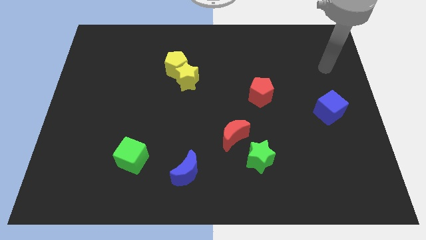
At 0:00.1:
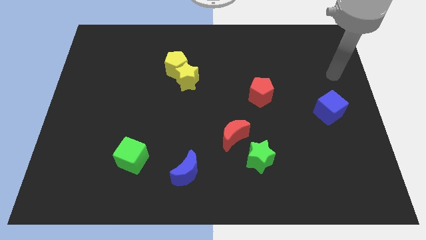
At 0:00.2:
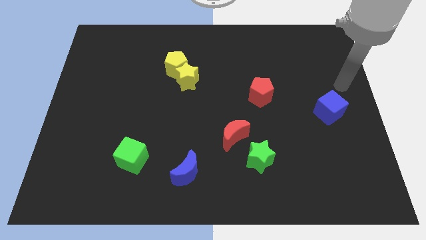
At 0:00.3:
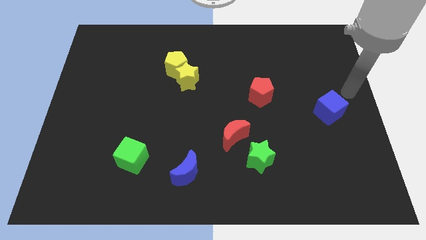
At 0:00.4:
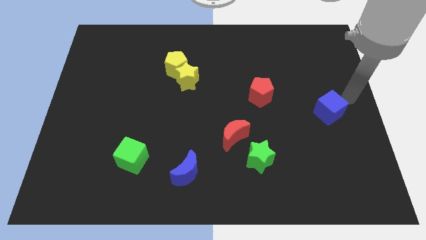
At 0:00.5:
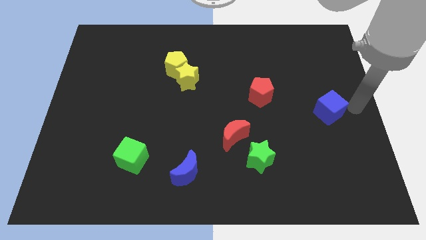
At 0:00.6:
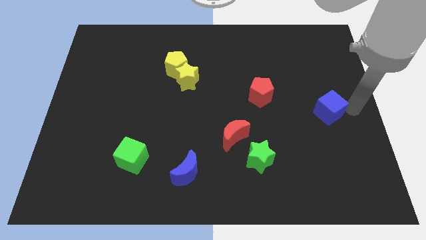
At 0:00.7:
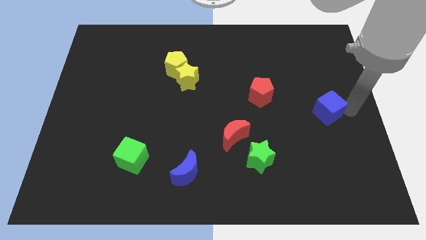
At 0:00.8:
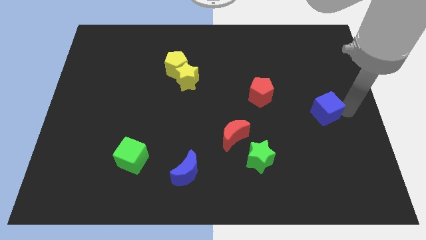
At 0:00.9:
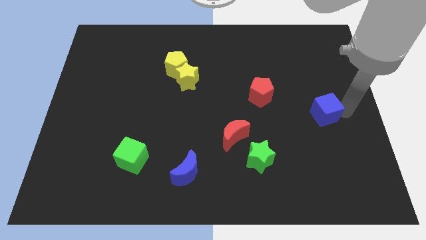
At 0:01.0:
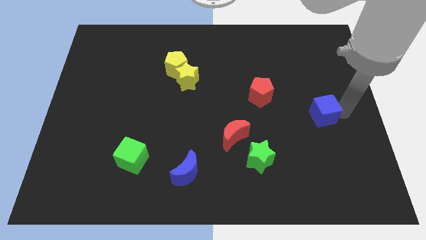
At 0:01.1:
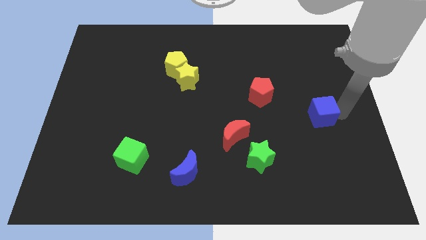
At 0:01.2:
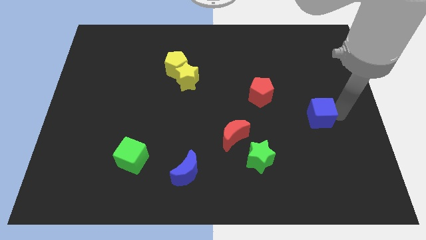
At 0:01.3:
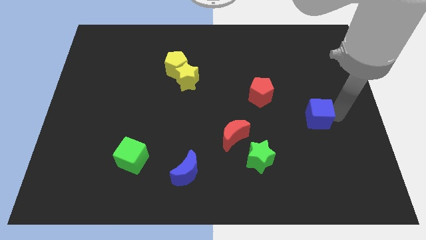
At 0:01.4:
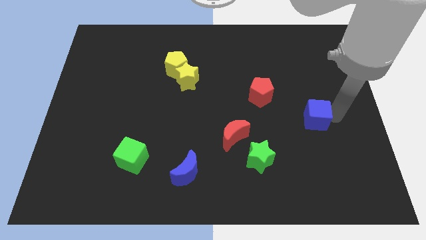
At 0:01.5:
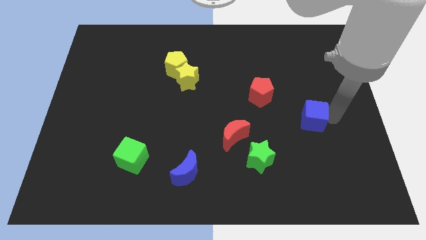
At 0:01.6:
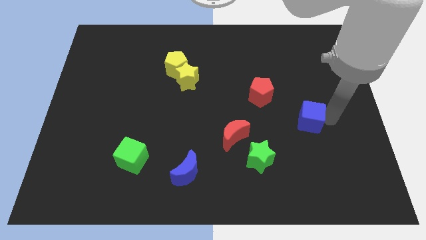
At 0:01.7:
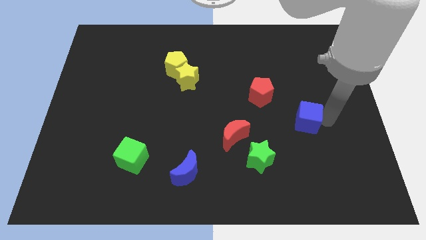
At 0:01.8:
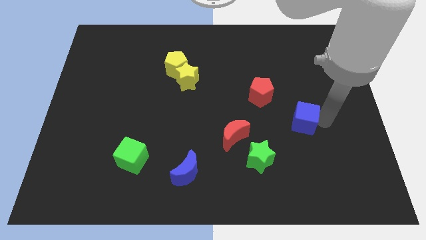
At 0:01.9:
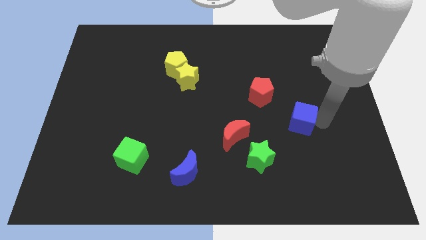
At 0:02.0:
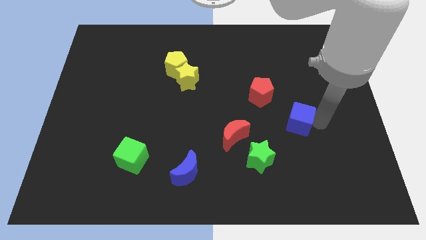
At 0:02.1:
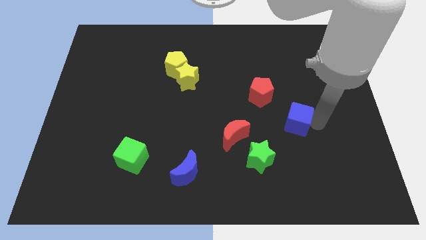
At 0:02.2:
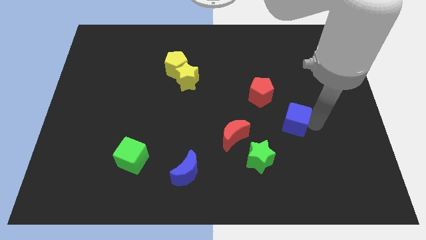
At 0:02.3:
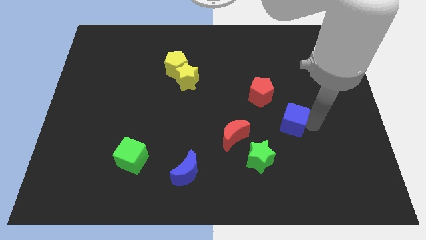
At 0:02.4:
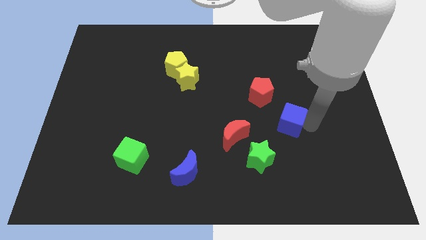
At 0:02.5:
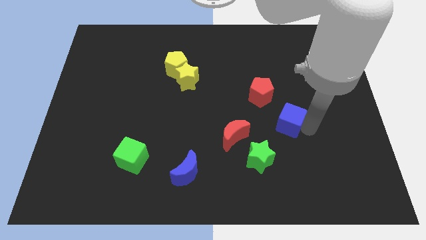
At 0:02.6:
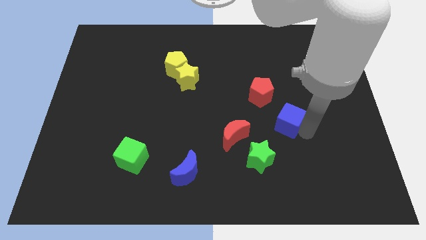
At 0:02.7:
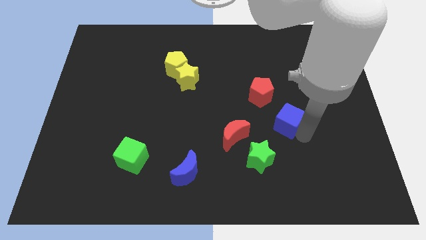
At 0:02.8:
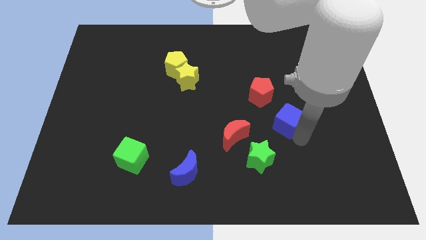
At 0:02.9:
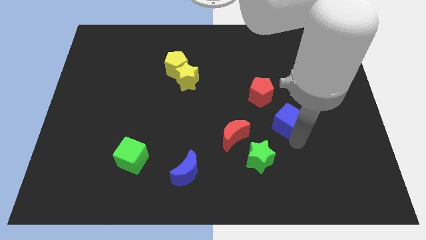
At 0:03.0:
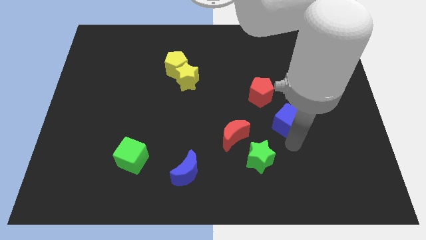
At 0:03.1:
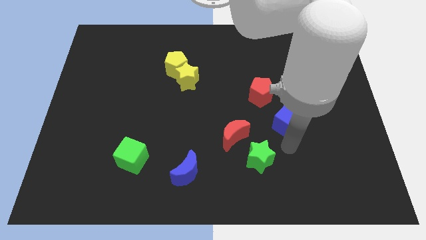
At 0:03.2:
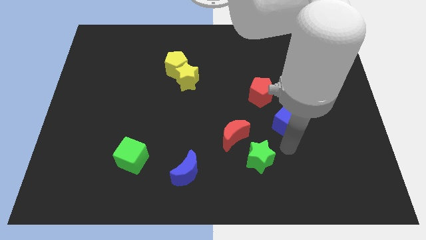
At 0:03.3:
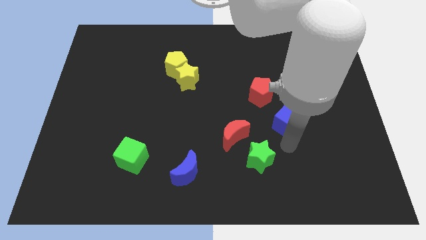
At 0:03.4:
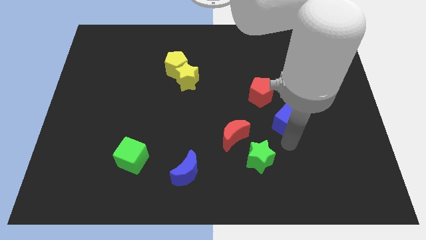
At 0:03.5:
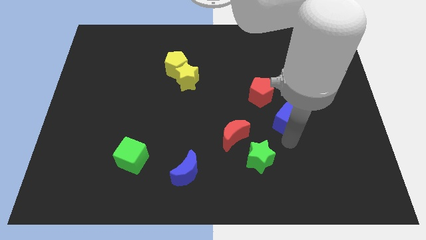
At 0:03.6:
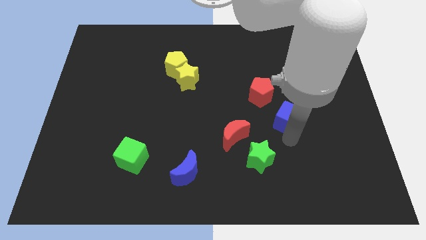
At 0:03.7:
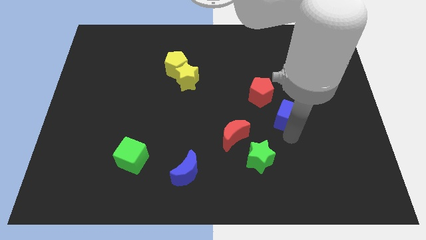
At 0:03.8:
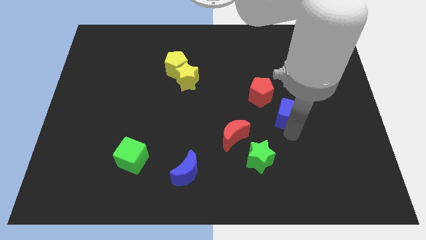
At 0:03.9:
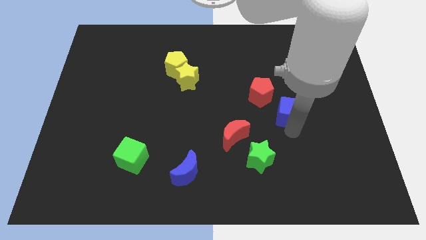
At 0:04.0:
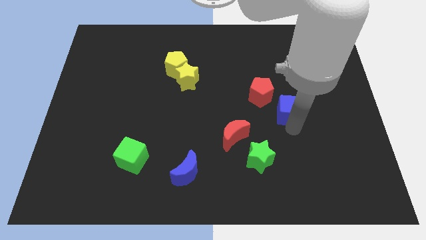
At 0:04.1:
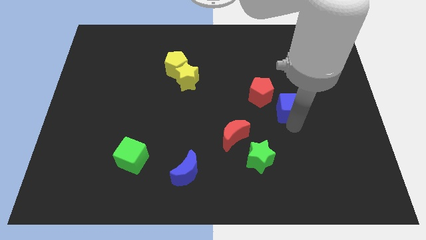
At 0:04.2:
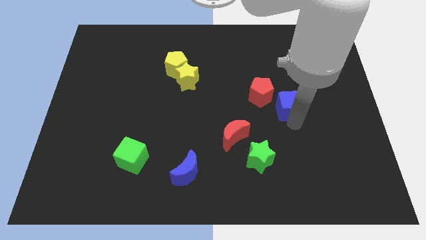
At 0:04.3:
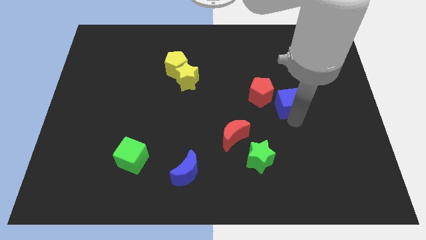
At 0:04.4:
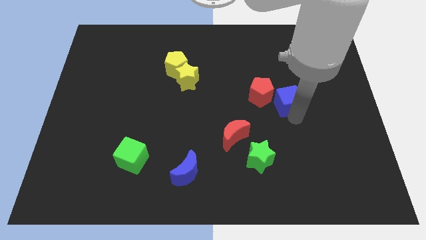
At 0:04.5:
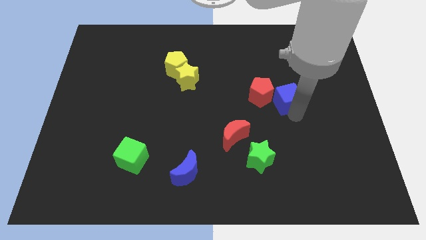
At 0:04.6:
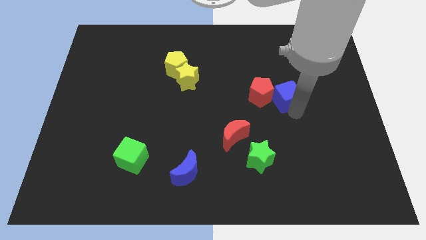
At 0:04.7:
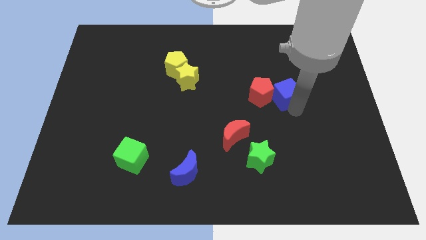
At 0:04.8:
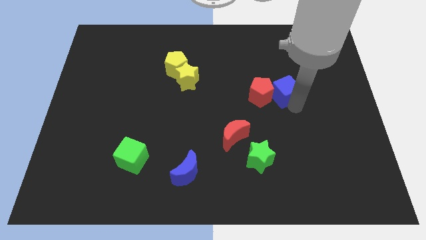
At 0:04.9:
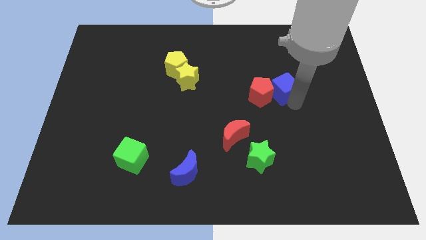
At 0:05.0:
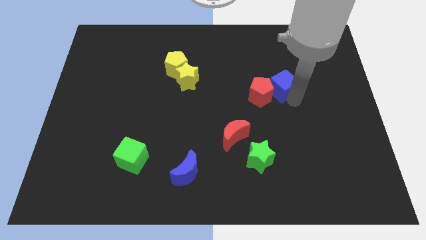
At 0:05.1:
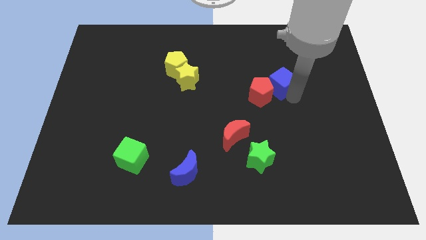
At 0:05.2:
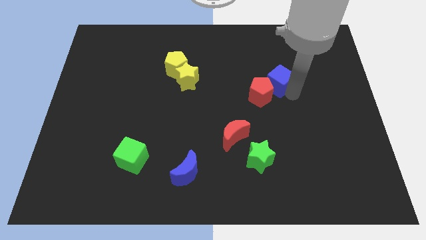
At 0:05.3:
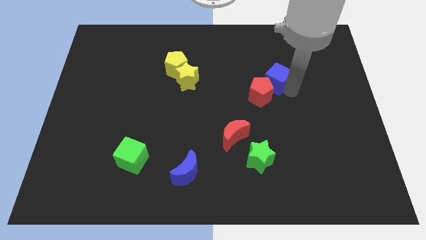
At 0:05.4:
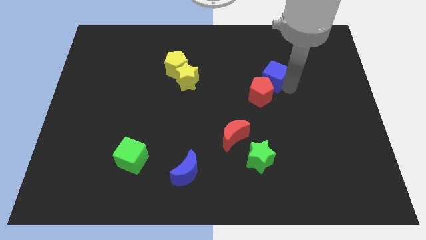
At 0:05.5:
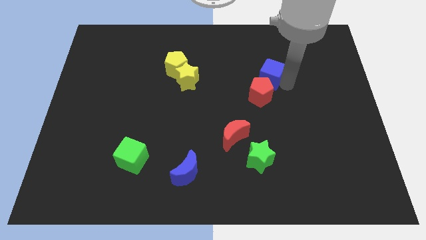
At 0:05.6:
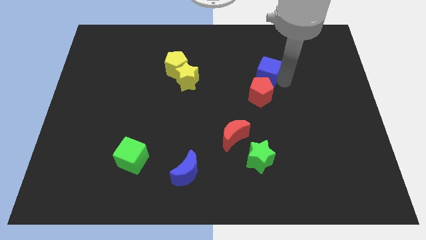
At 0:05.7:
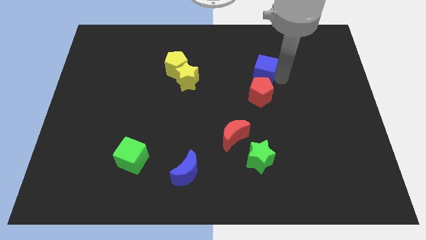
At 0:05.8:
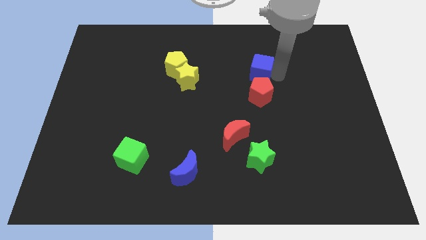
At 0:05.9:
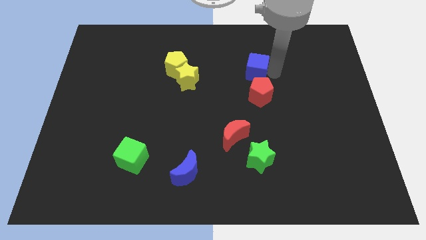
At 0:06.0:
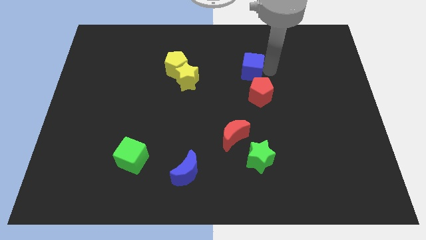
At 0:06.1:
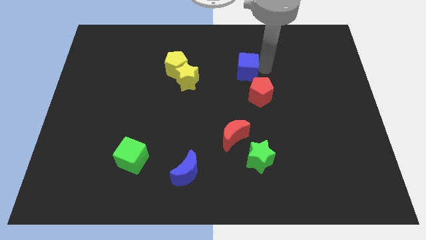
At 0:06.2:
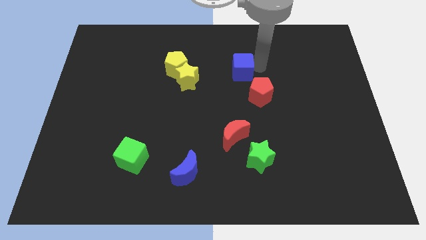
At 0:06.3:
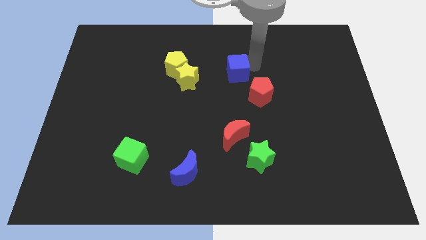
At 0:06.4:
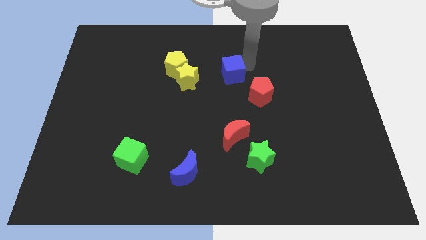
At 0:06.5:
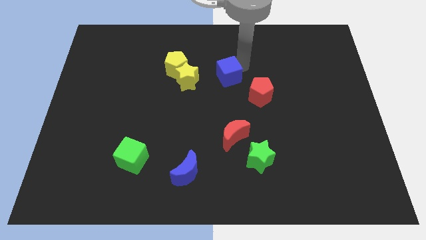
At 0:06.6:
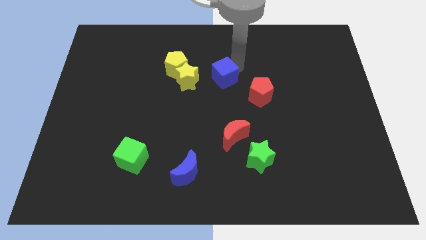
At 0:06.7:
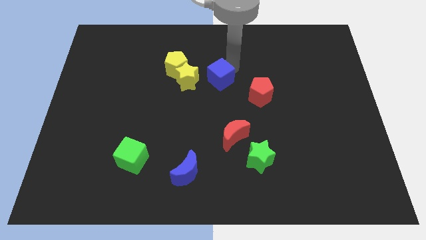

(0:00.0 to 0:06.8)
push the blue cube left

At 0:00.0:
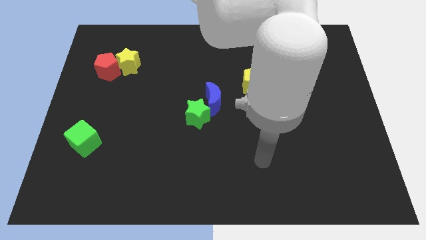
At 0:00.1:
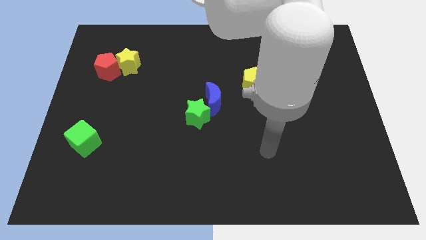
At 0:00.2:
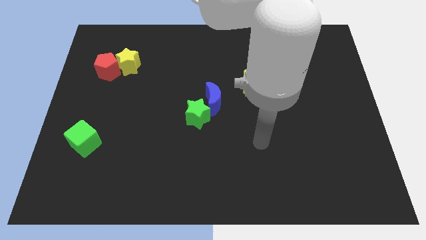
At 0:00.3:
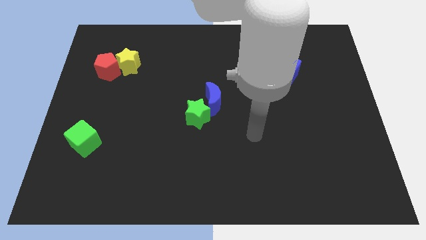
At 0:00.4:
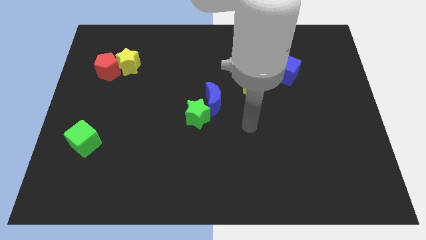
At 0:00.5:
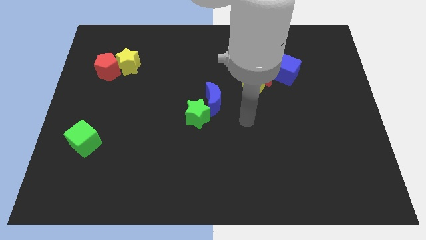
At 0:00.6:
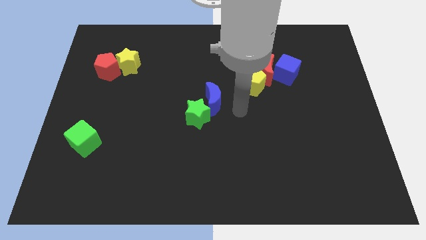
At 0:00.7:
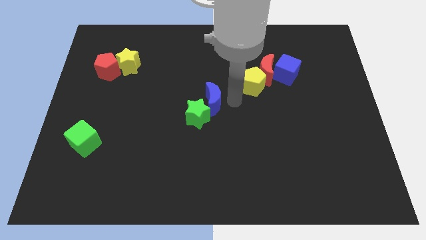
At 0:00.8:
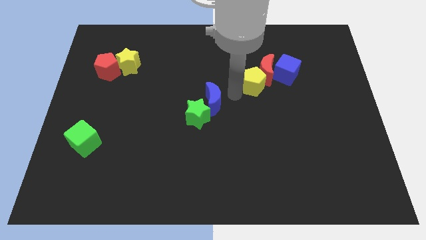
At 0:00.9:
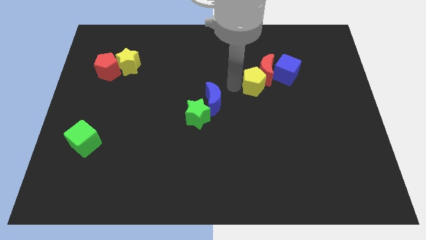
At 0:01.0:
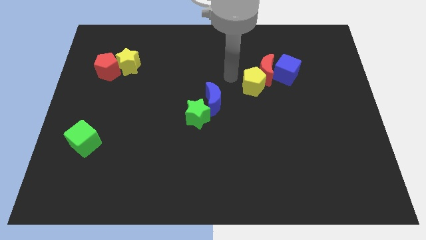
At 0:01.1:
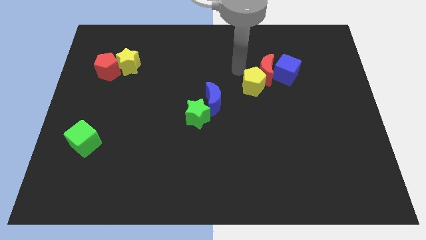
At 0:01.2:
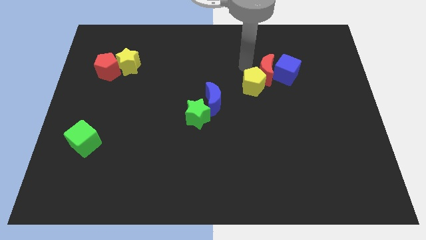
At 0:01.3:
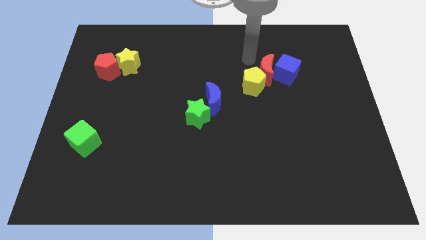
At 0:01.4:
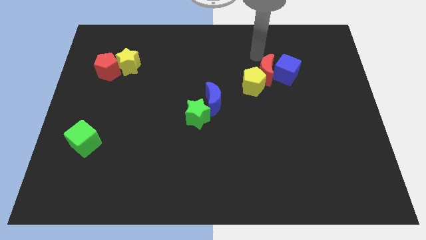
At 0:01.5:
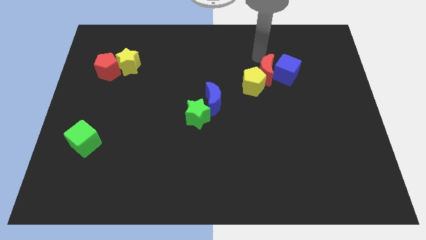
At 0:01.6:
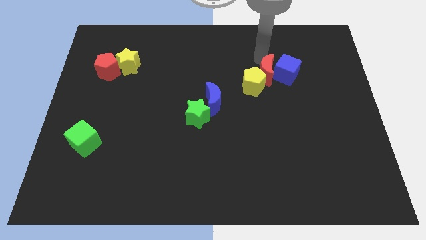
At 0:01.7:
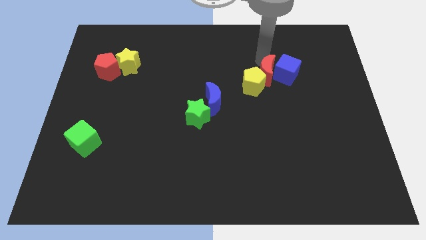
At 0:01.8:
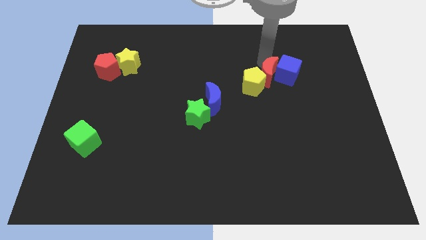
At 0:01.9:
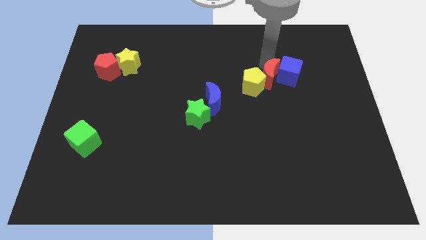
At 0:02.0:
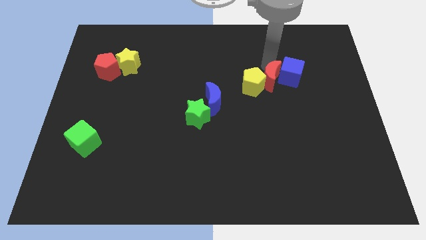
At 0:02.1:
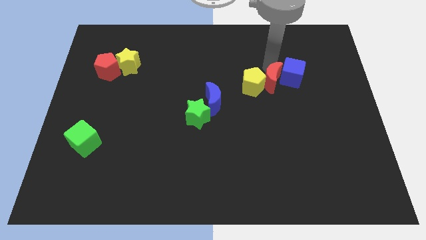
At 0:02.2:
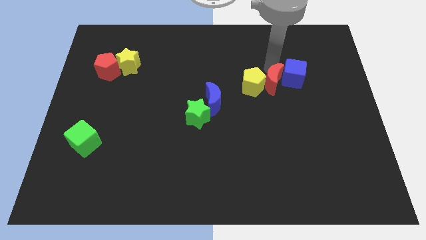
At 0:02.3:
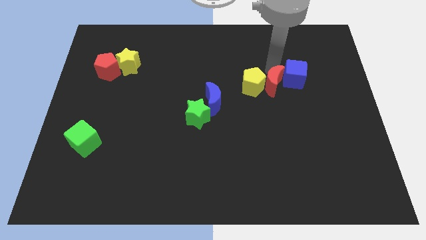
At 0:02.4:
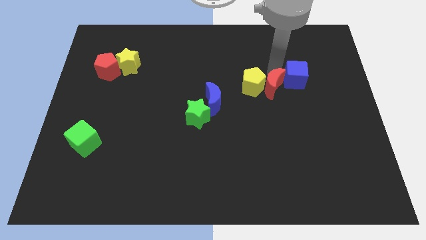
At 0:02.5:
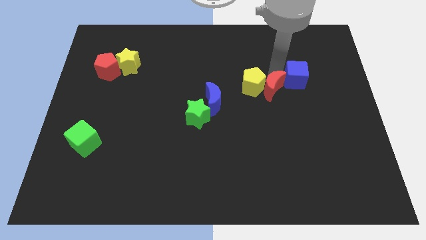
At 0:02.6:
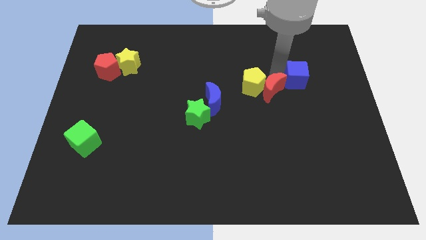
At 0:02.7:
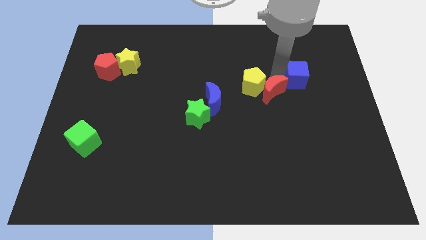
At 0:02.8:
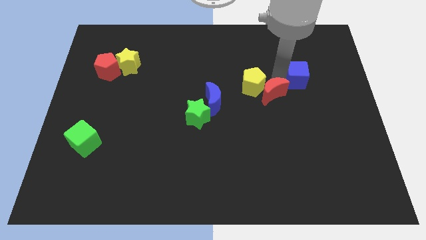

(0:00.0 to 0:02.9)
slightly push the red moon downwards
